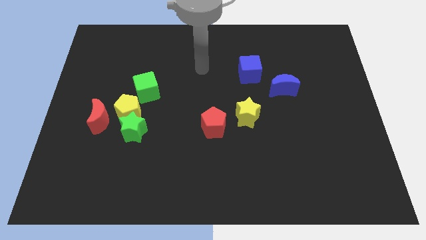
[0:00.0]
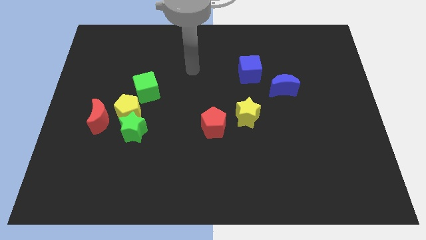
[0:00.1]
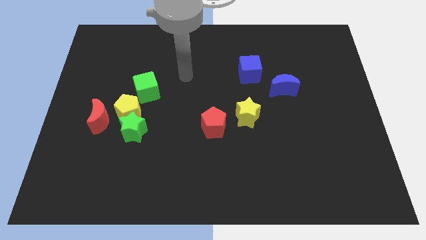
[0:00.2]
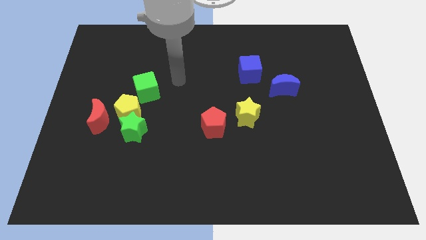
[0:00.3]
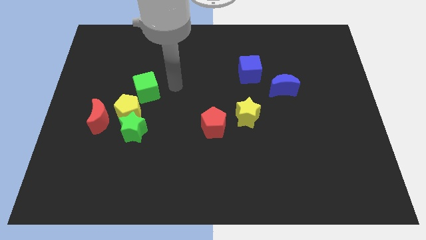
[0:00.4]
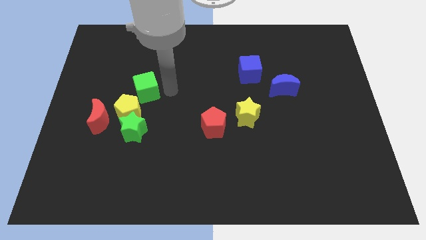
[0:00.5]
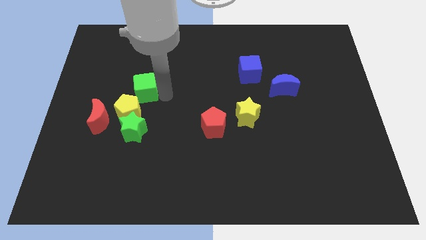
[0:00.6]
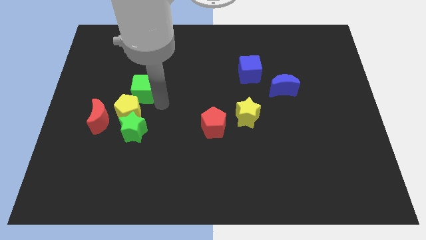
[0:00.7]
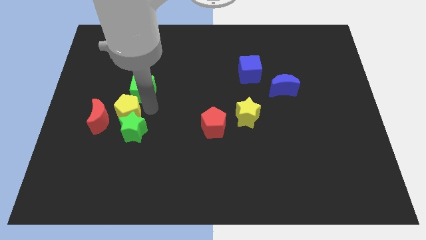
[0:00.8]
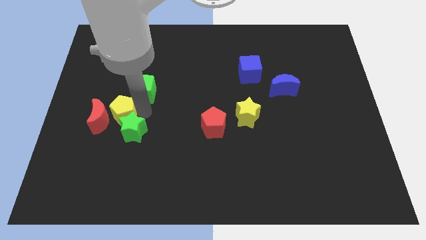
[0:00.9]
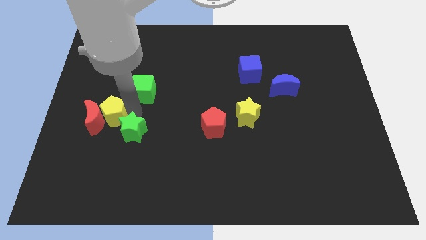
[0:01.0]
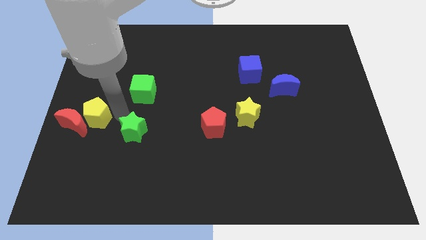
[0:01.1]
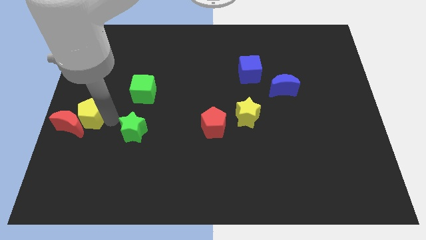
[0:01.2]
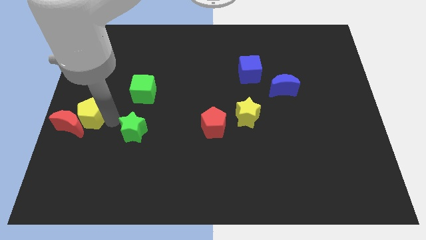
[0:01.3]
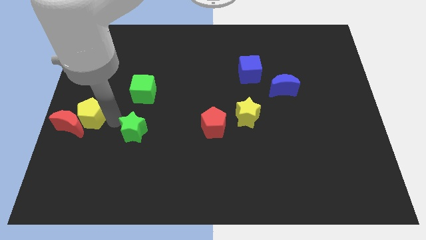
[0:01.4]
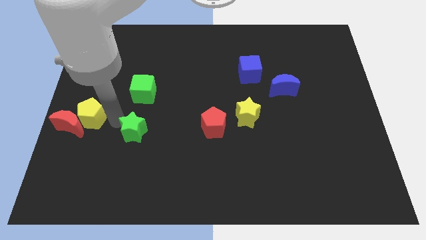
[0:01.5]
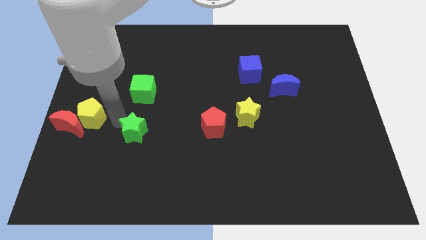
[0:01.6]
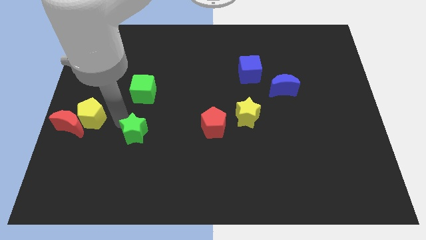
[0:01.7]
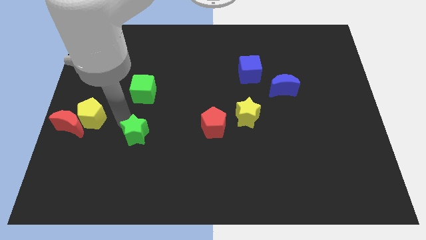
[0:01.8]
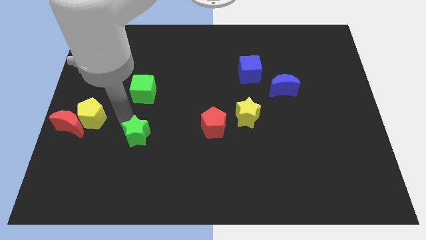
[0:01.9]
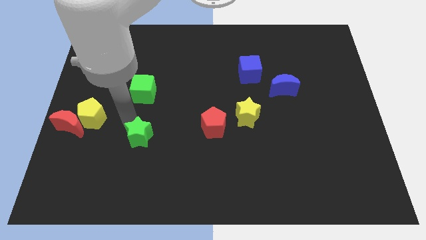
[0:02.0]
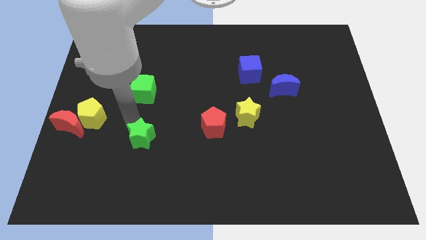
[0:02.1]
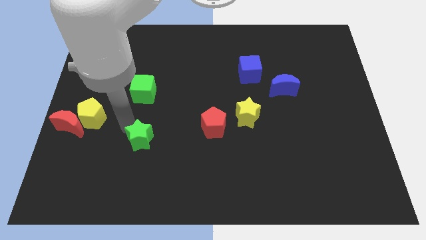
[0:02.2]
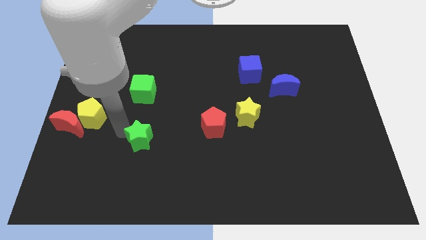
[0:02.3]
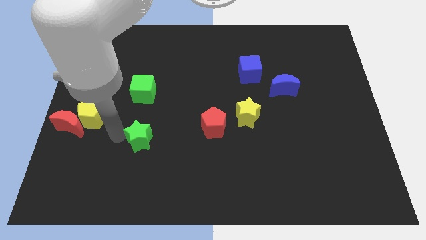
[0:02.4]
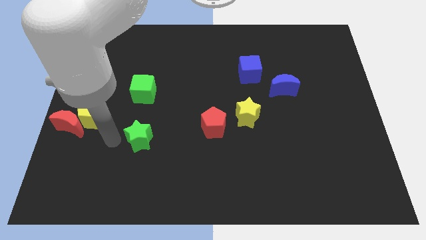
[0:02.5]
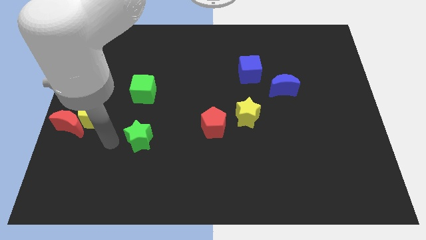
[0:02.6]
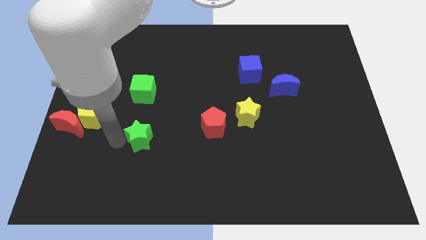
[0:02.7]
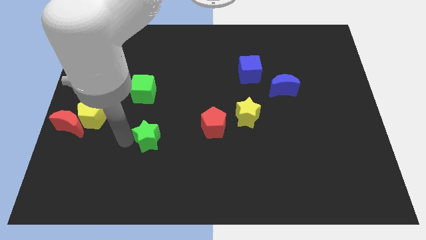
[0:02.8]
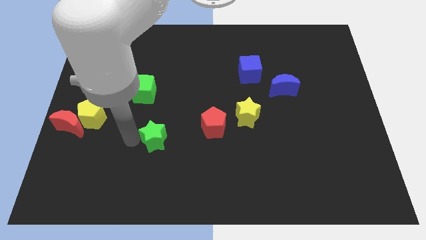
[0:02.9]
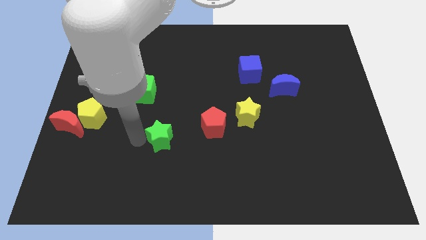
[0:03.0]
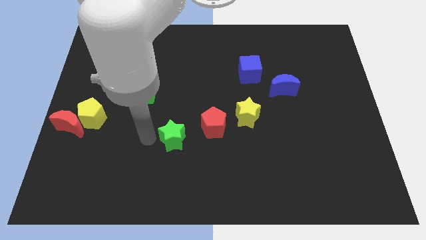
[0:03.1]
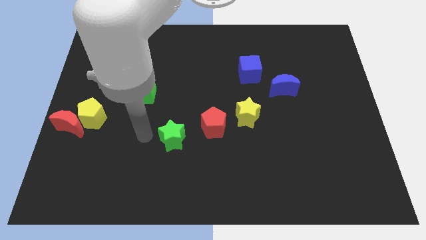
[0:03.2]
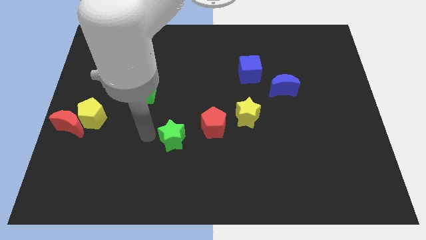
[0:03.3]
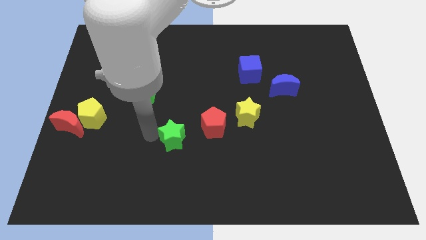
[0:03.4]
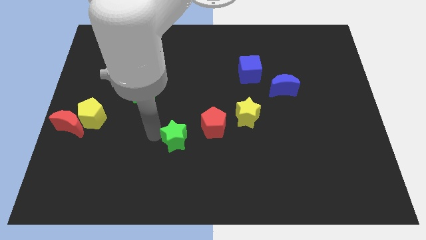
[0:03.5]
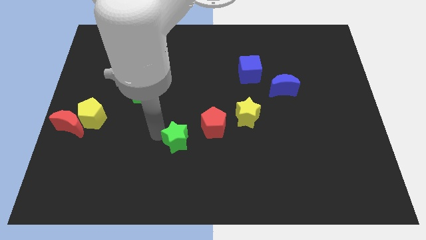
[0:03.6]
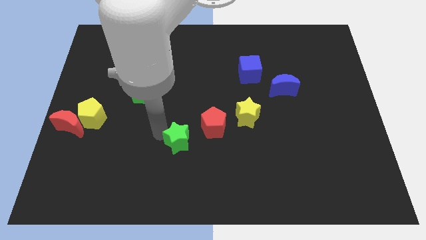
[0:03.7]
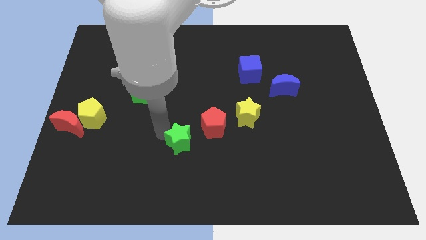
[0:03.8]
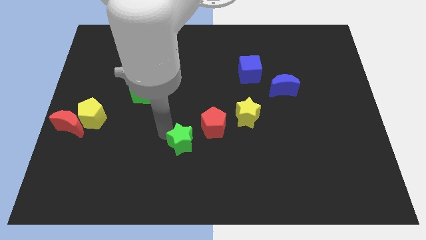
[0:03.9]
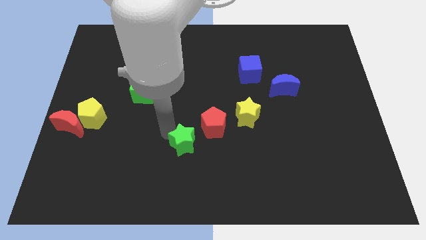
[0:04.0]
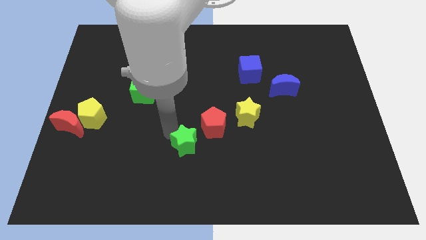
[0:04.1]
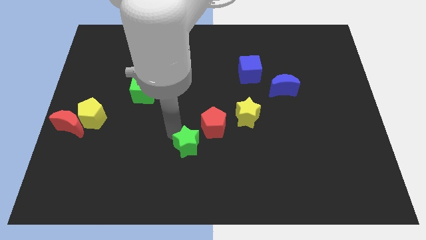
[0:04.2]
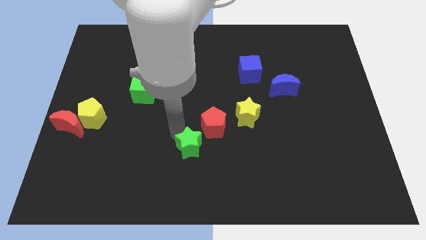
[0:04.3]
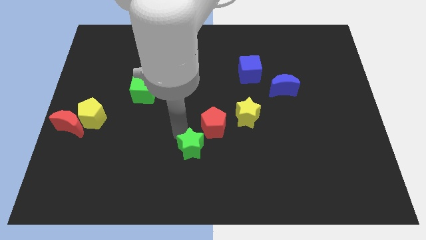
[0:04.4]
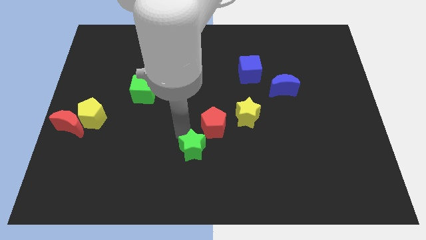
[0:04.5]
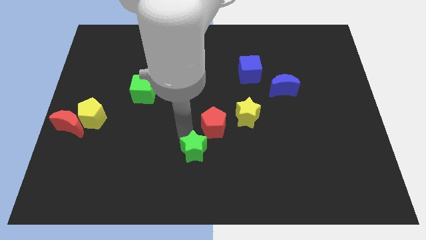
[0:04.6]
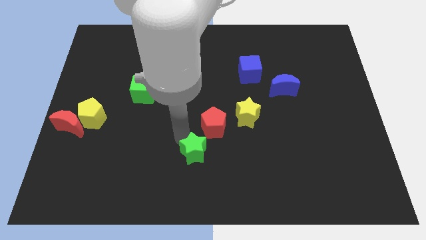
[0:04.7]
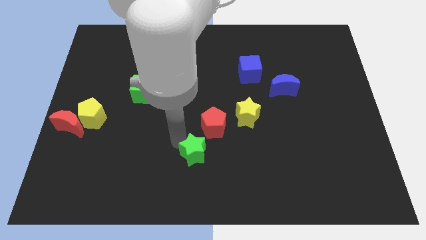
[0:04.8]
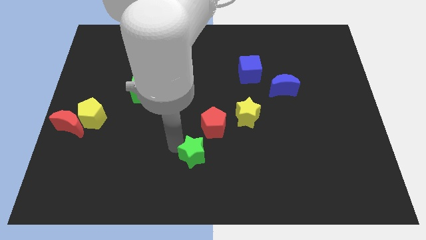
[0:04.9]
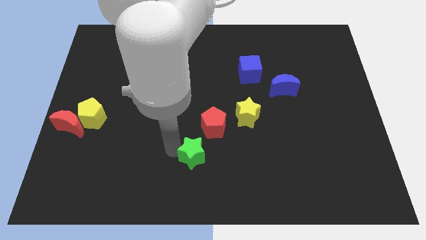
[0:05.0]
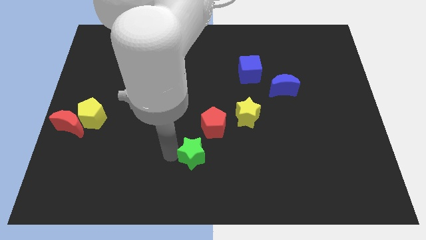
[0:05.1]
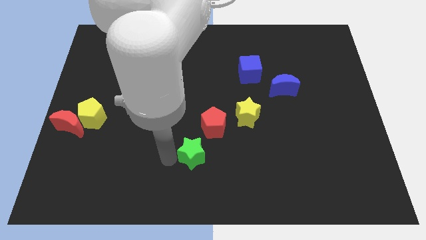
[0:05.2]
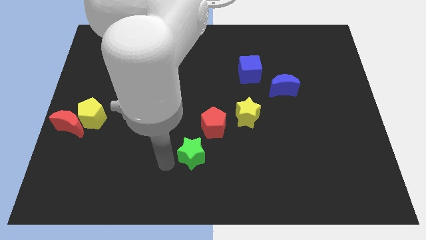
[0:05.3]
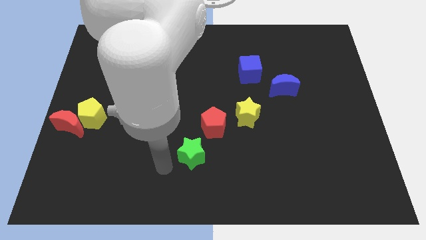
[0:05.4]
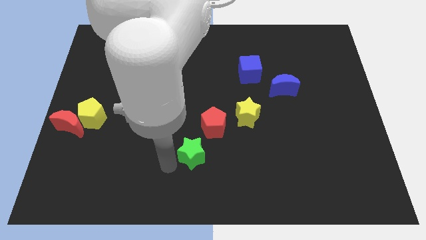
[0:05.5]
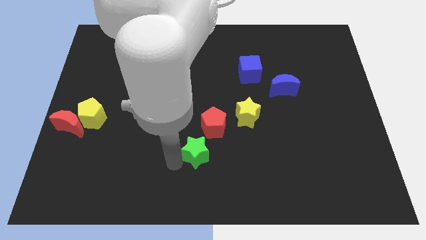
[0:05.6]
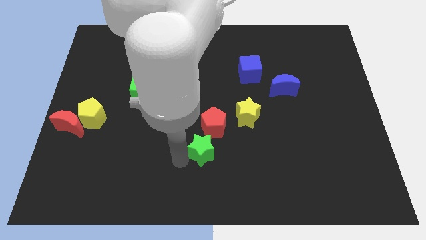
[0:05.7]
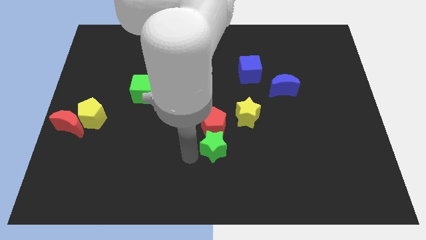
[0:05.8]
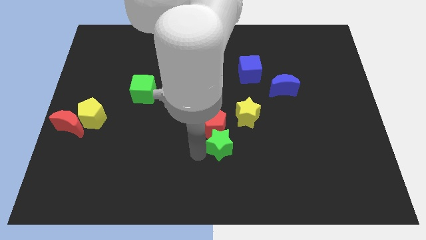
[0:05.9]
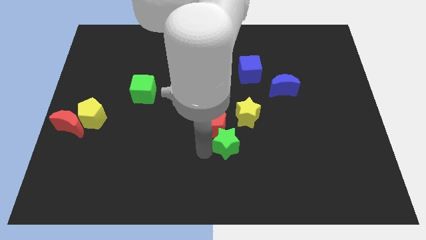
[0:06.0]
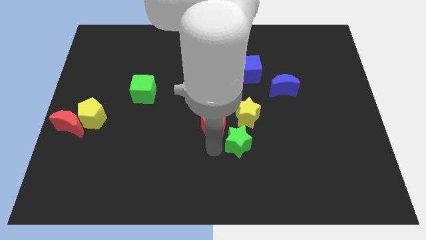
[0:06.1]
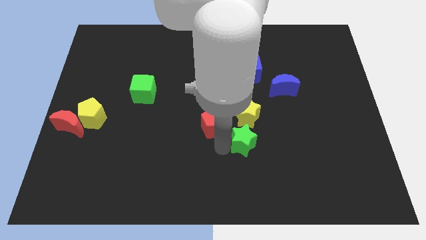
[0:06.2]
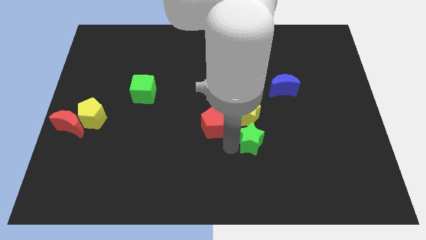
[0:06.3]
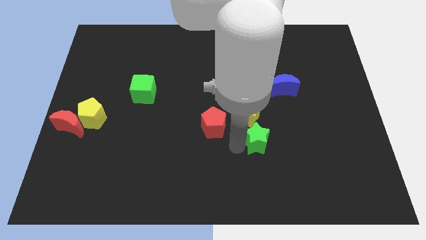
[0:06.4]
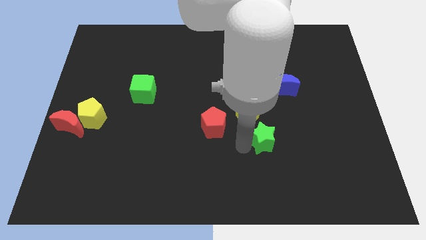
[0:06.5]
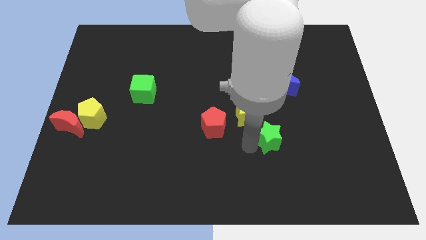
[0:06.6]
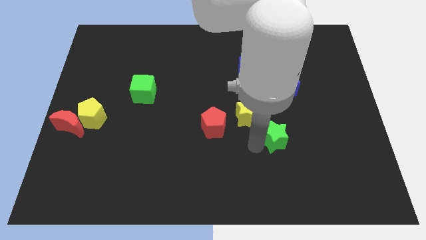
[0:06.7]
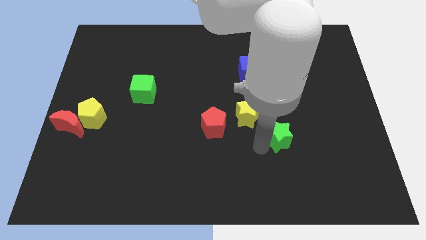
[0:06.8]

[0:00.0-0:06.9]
slide the green star to the bottom side of the blue moon

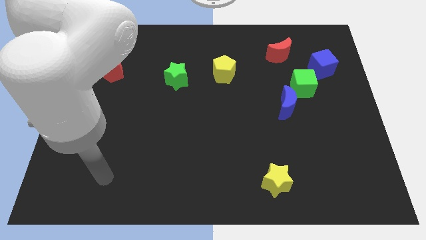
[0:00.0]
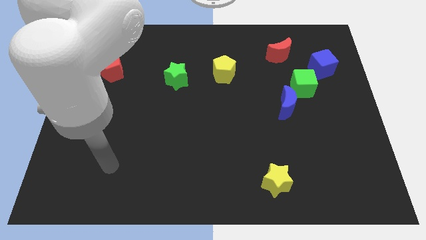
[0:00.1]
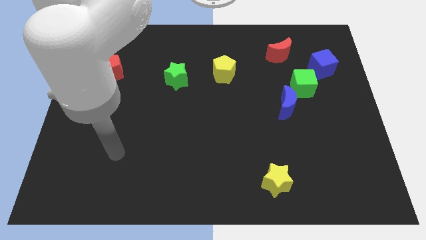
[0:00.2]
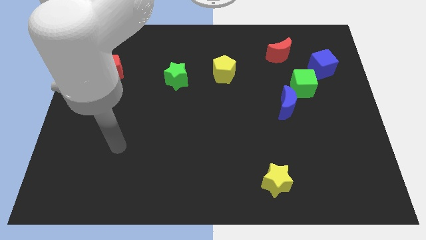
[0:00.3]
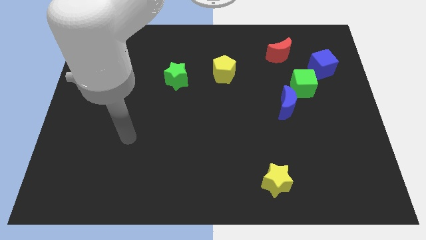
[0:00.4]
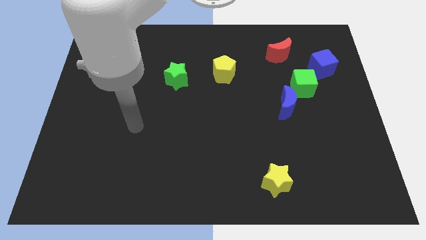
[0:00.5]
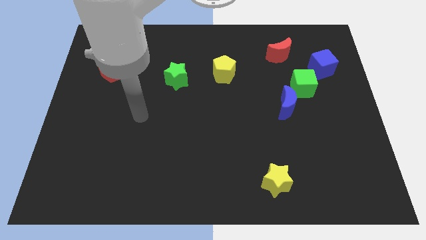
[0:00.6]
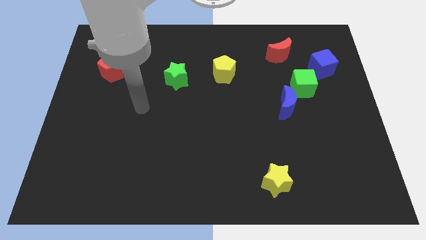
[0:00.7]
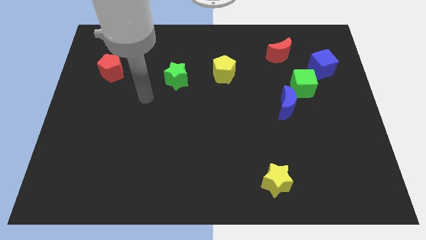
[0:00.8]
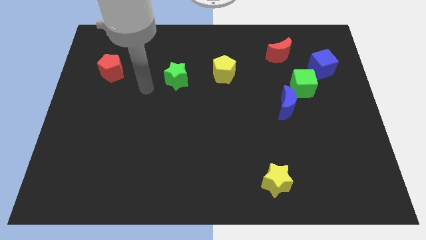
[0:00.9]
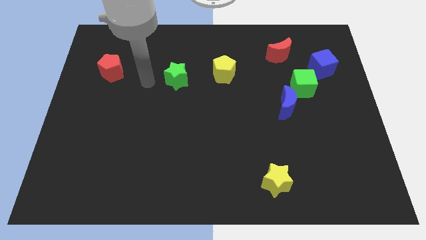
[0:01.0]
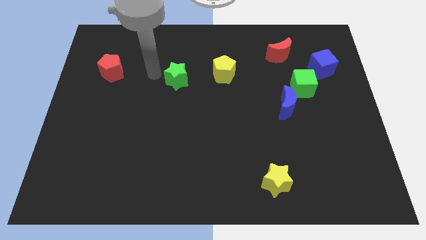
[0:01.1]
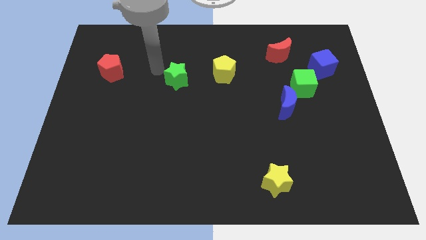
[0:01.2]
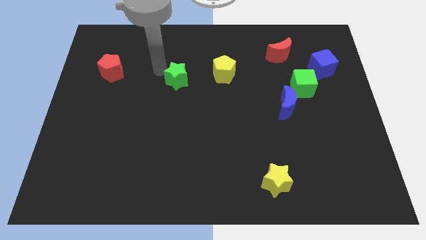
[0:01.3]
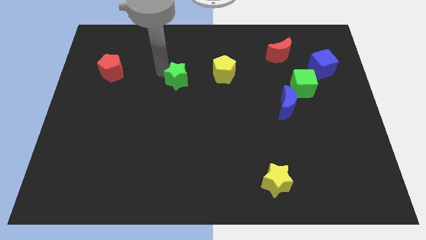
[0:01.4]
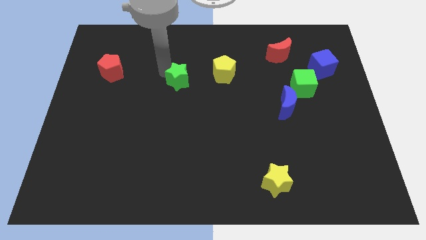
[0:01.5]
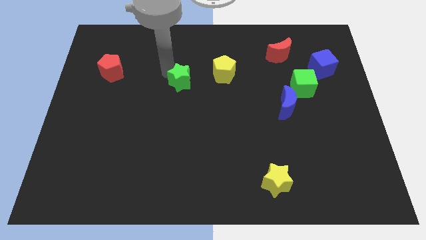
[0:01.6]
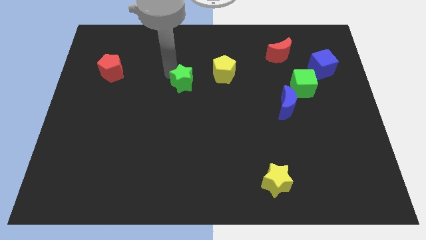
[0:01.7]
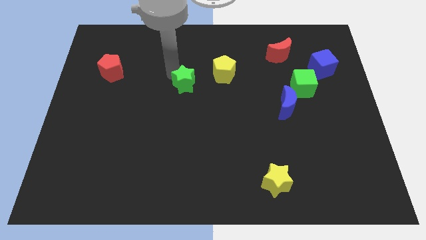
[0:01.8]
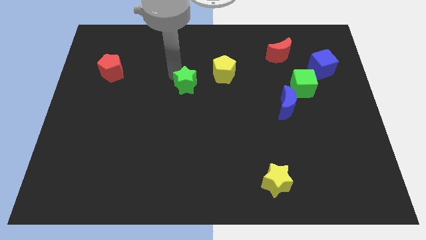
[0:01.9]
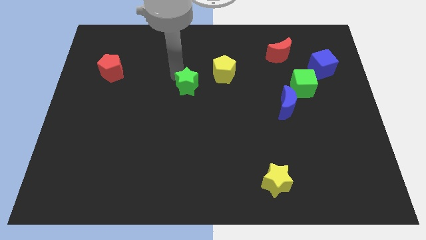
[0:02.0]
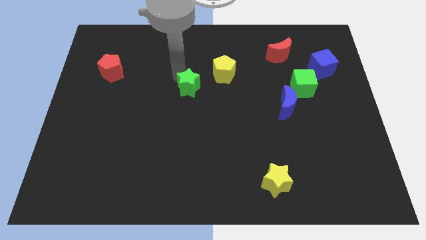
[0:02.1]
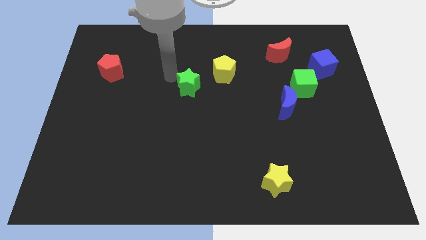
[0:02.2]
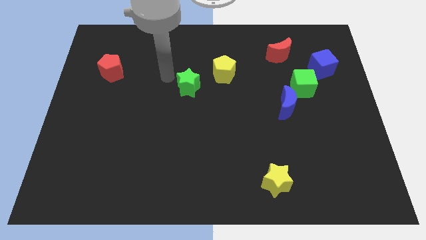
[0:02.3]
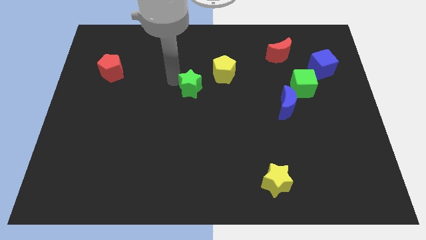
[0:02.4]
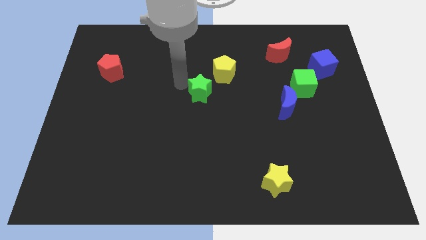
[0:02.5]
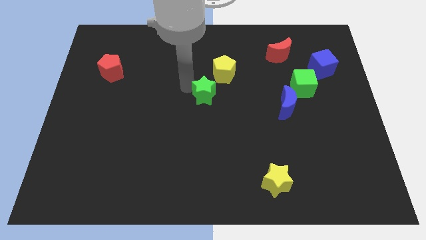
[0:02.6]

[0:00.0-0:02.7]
move the green star below the yellow pentagon
